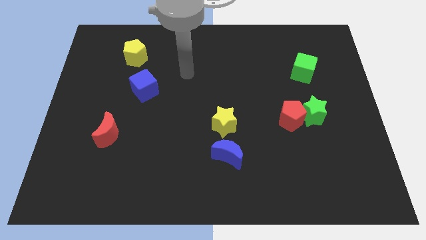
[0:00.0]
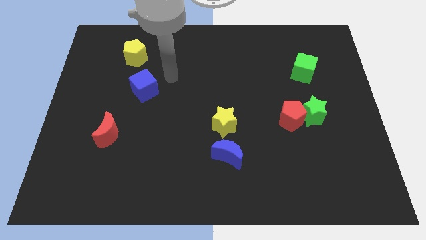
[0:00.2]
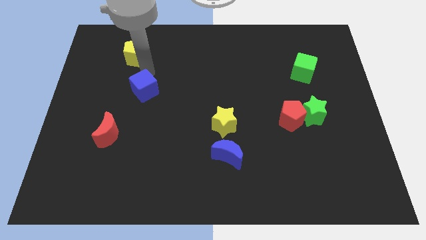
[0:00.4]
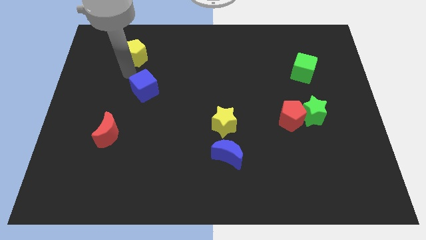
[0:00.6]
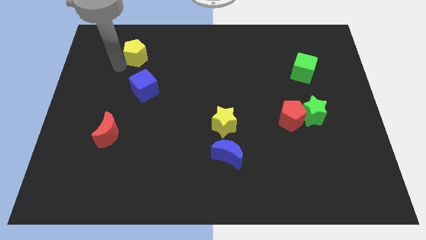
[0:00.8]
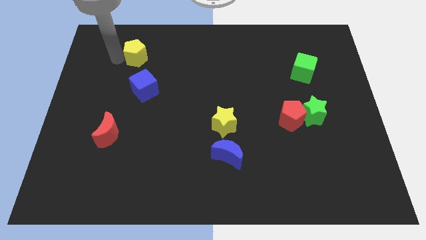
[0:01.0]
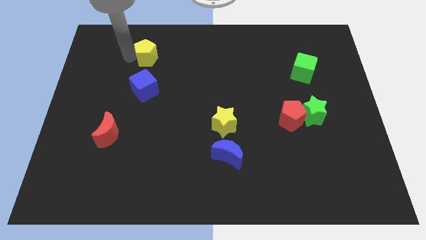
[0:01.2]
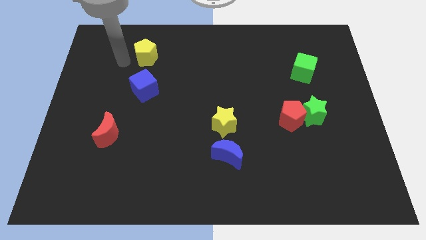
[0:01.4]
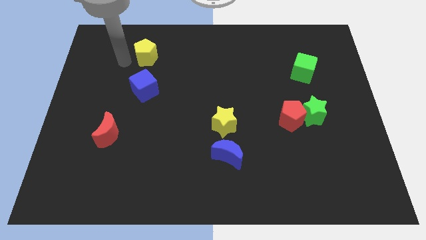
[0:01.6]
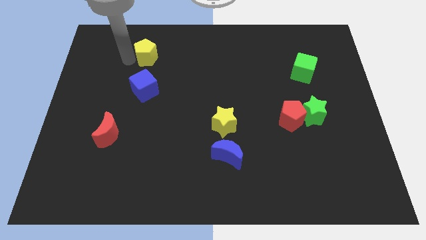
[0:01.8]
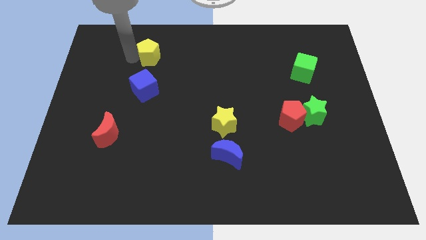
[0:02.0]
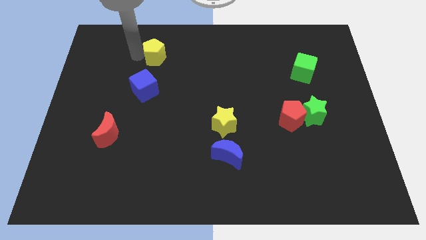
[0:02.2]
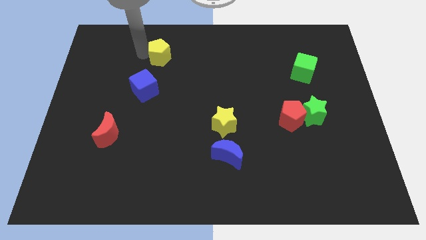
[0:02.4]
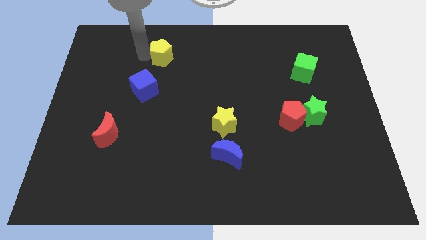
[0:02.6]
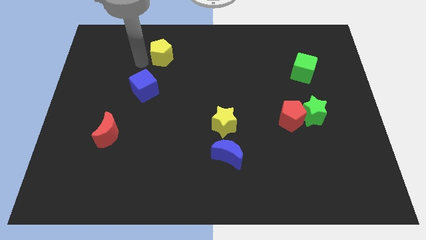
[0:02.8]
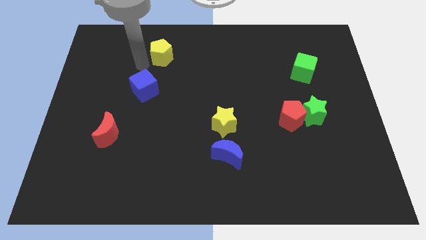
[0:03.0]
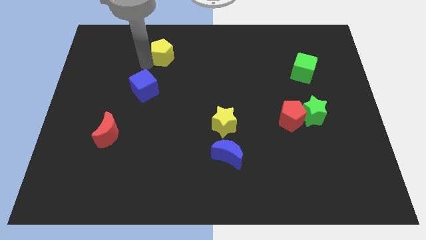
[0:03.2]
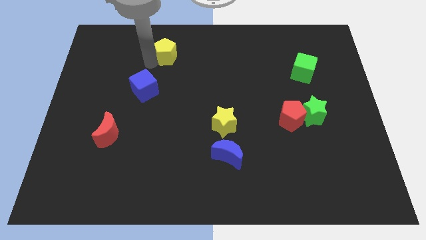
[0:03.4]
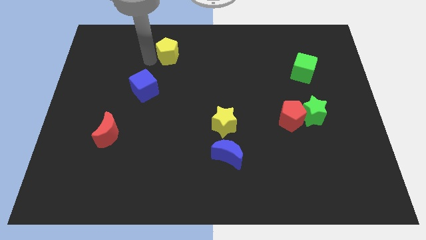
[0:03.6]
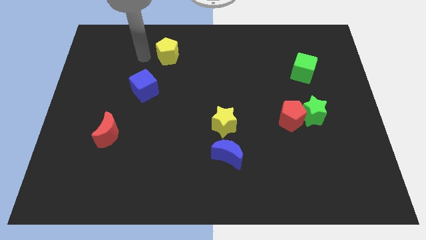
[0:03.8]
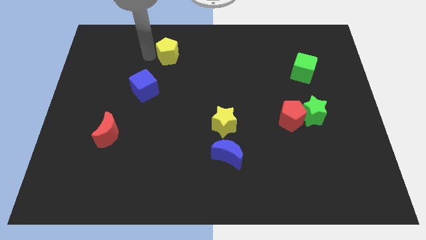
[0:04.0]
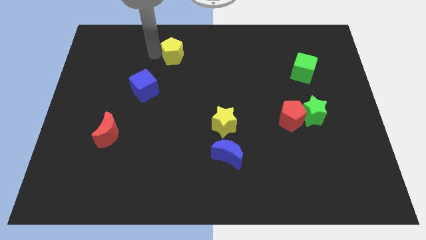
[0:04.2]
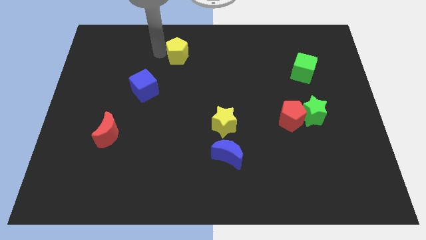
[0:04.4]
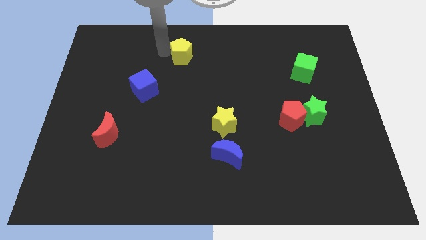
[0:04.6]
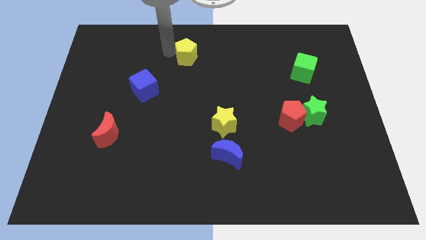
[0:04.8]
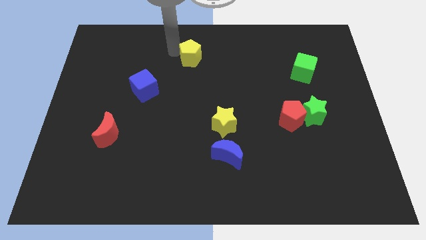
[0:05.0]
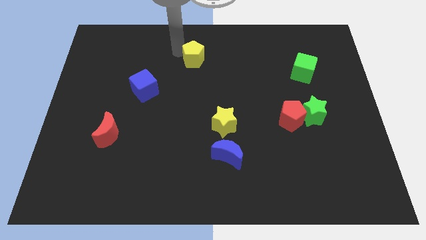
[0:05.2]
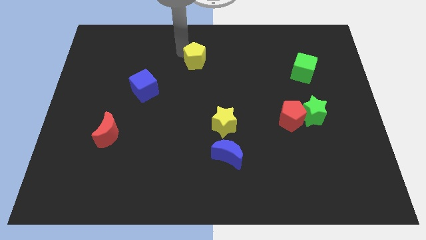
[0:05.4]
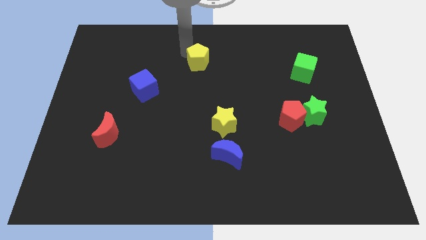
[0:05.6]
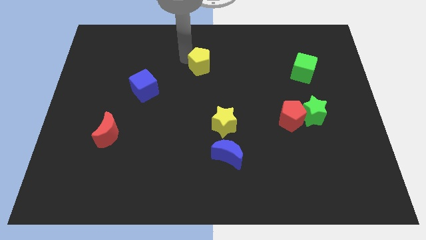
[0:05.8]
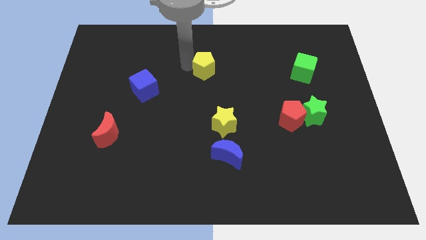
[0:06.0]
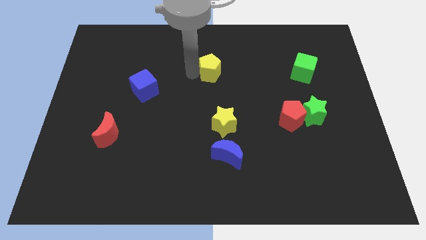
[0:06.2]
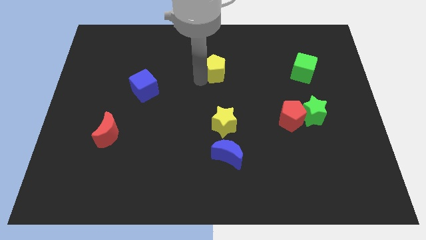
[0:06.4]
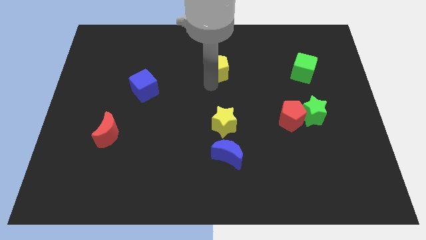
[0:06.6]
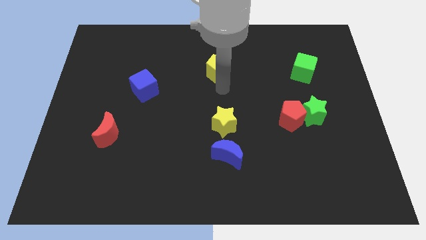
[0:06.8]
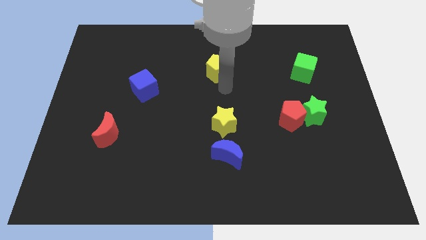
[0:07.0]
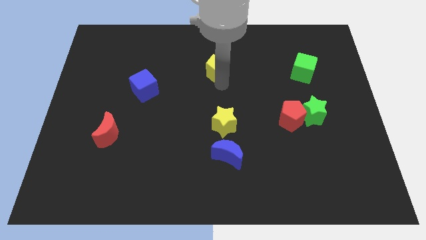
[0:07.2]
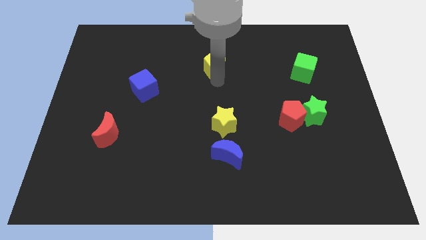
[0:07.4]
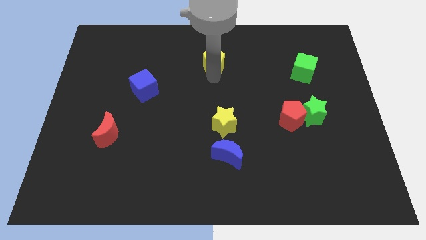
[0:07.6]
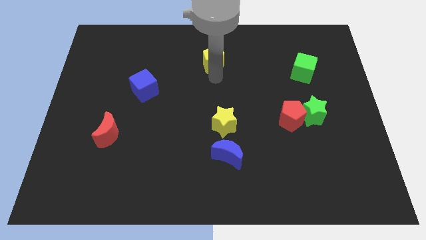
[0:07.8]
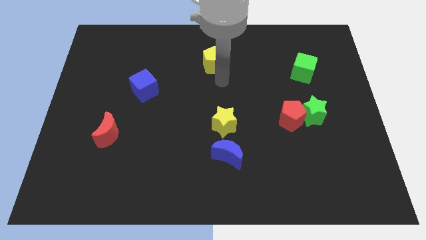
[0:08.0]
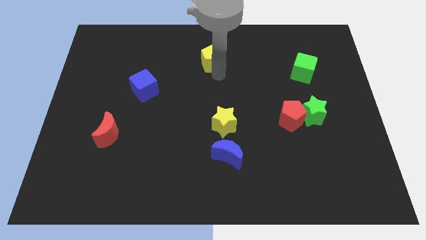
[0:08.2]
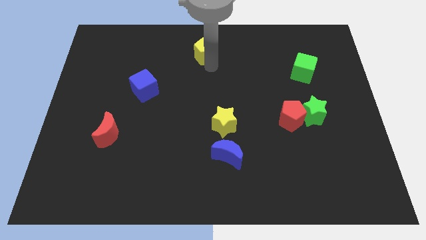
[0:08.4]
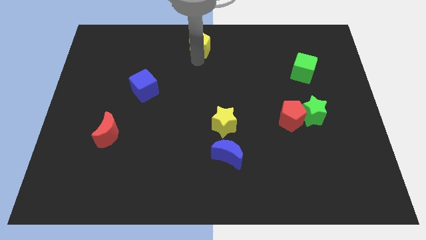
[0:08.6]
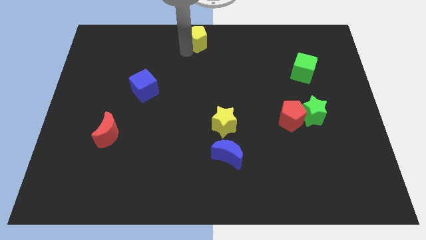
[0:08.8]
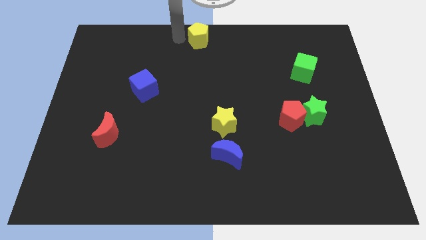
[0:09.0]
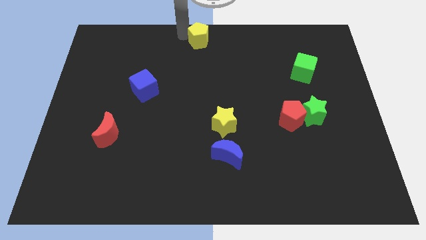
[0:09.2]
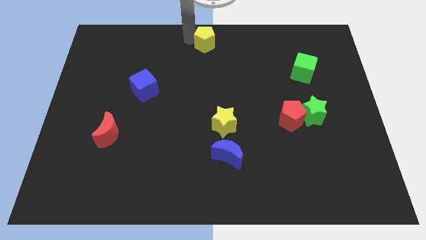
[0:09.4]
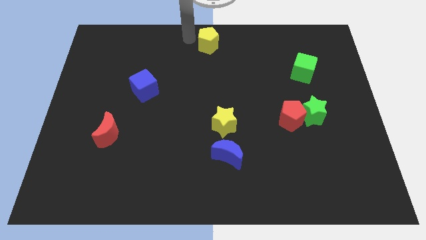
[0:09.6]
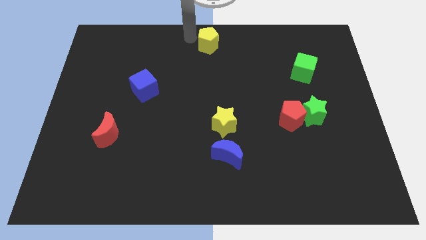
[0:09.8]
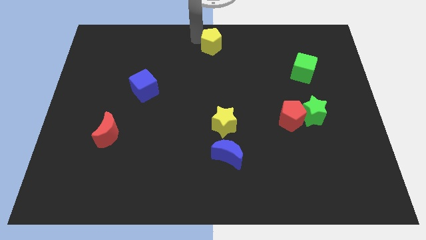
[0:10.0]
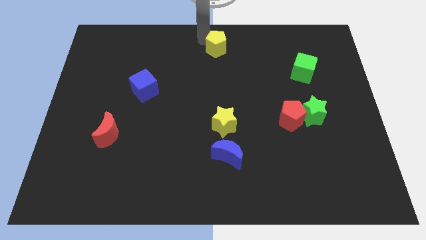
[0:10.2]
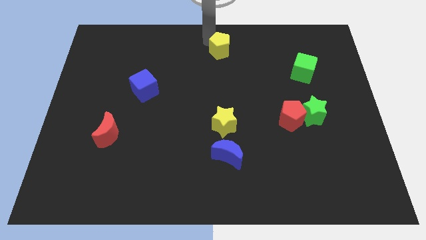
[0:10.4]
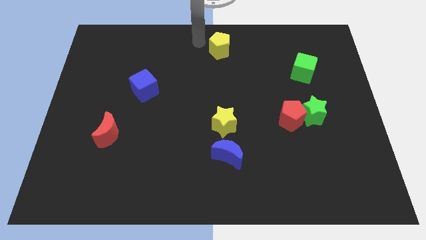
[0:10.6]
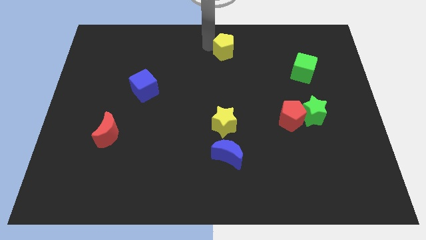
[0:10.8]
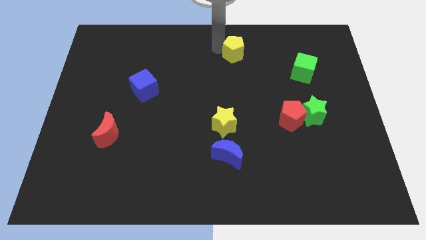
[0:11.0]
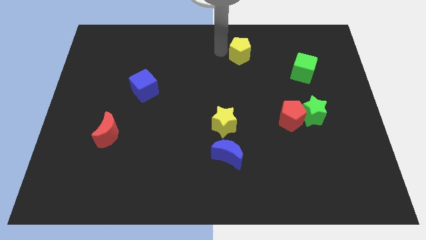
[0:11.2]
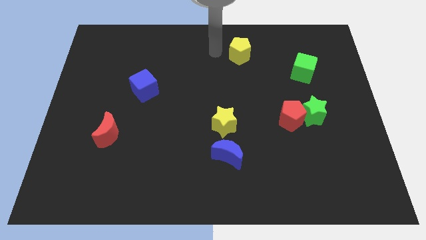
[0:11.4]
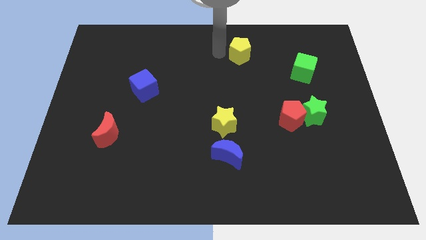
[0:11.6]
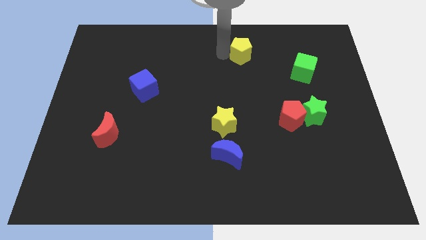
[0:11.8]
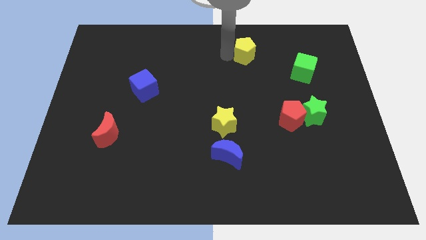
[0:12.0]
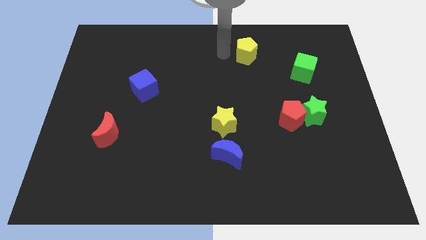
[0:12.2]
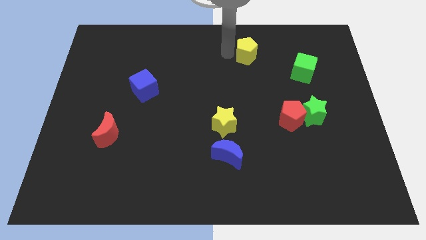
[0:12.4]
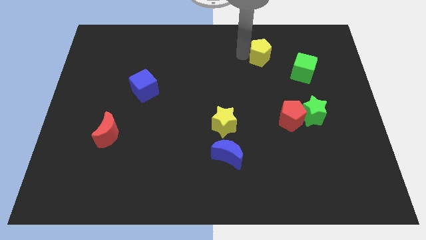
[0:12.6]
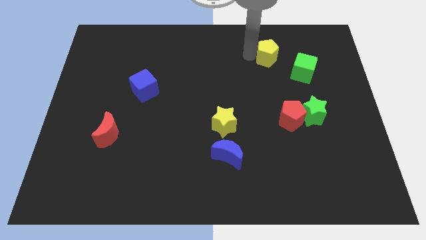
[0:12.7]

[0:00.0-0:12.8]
push the yellow pentagon to the top left side of the green cube
